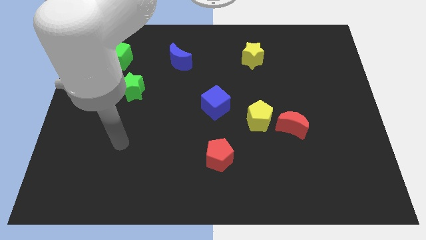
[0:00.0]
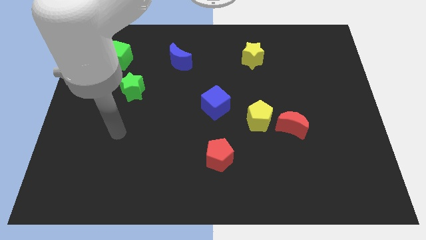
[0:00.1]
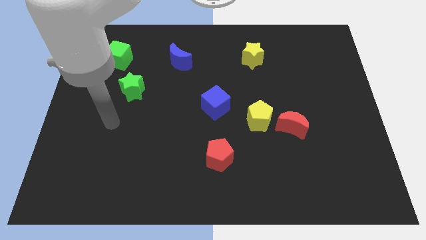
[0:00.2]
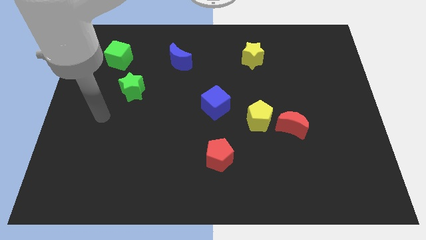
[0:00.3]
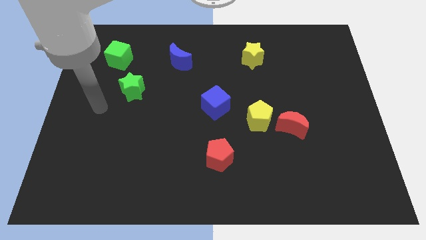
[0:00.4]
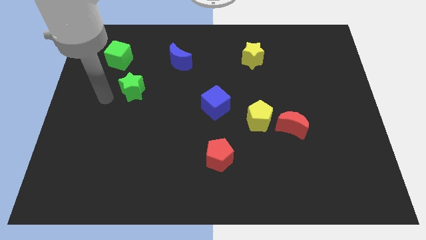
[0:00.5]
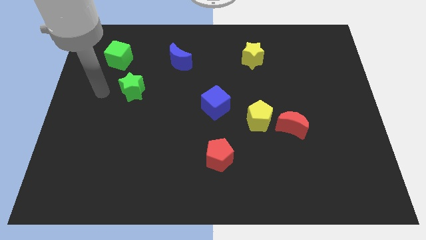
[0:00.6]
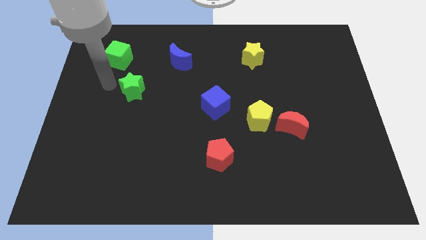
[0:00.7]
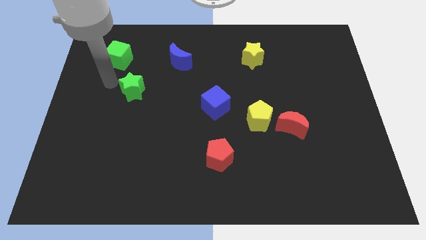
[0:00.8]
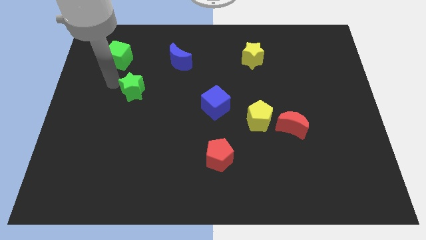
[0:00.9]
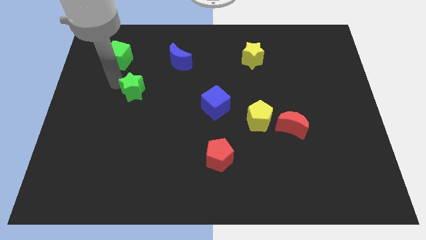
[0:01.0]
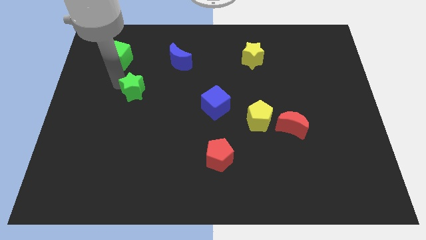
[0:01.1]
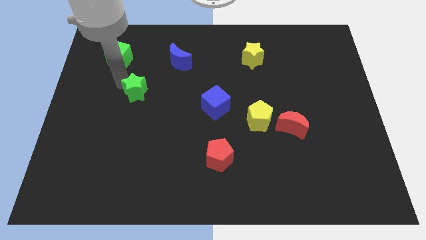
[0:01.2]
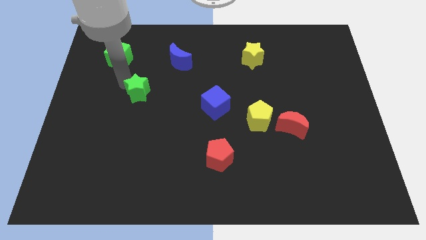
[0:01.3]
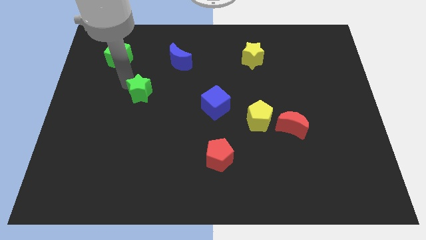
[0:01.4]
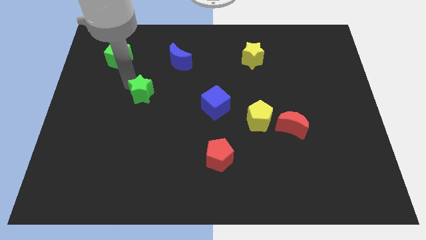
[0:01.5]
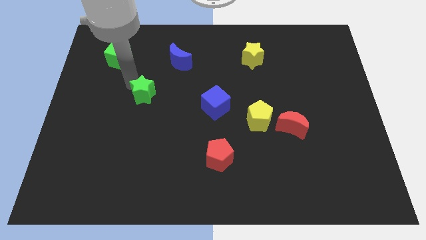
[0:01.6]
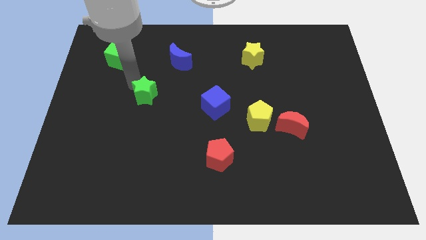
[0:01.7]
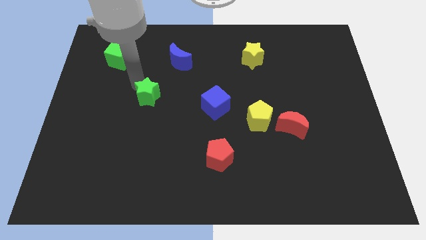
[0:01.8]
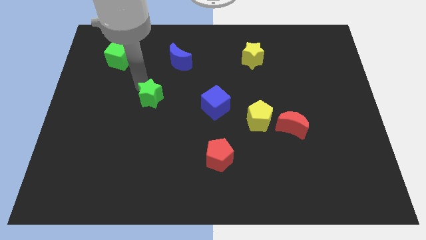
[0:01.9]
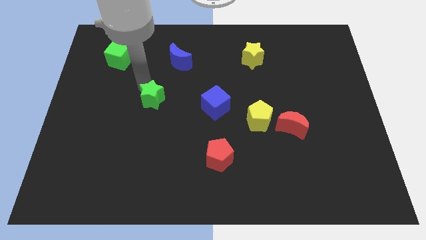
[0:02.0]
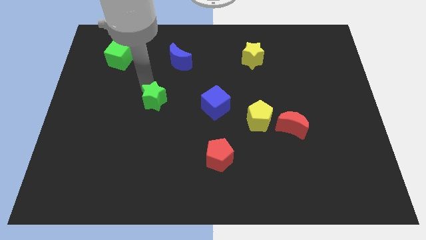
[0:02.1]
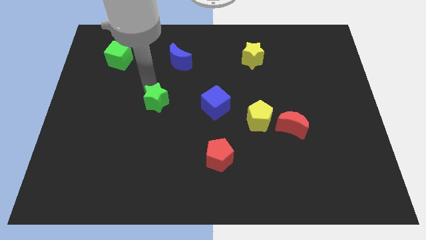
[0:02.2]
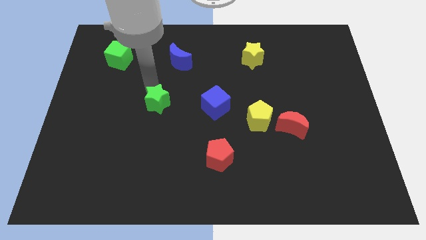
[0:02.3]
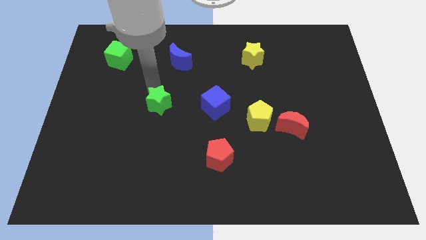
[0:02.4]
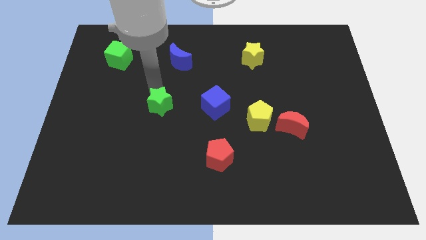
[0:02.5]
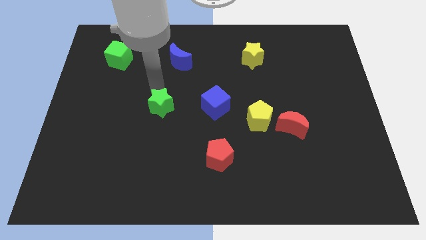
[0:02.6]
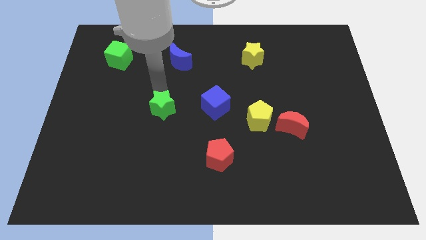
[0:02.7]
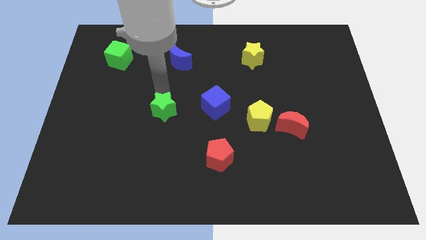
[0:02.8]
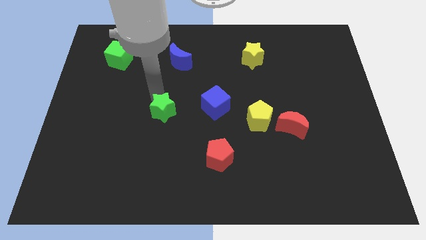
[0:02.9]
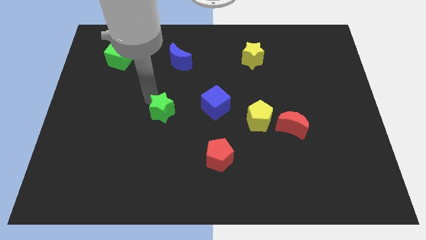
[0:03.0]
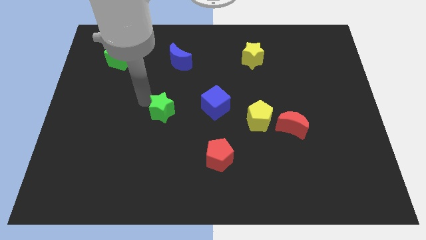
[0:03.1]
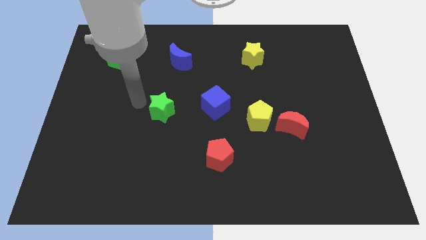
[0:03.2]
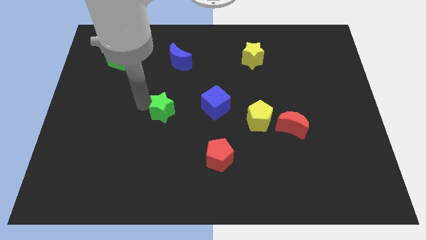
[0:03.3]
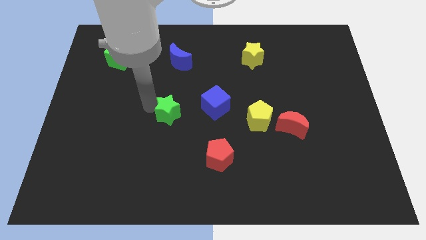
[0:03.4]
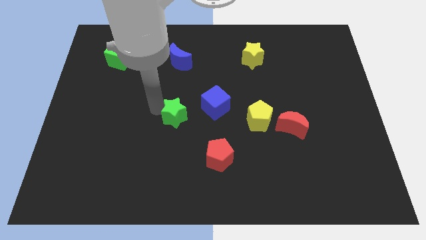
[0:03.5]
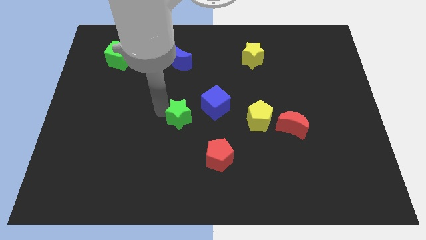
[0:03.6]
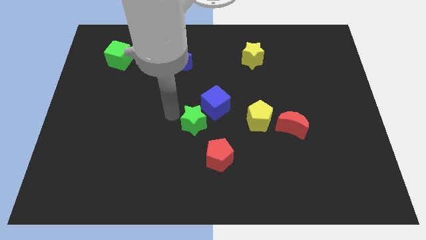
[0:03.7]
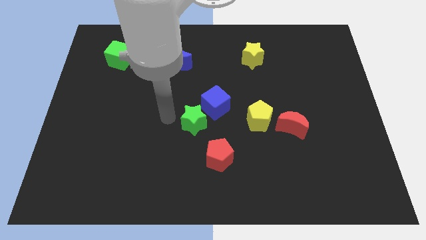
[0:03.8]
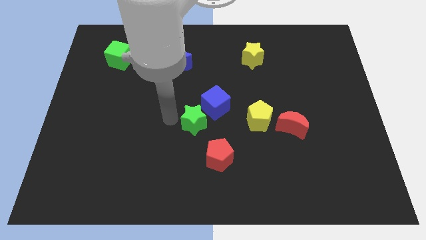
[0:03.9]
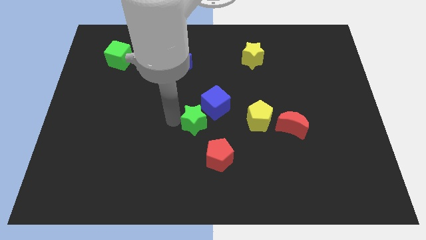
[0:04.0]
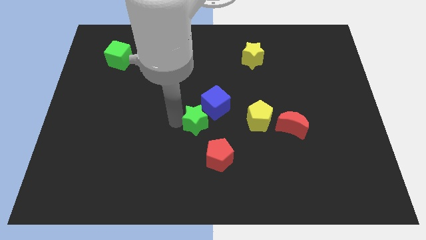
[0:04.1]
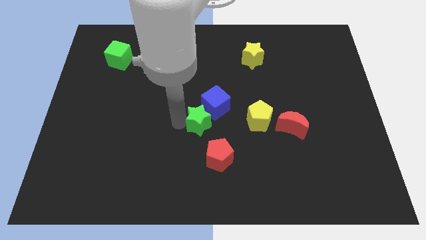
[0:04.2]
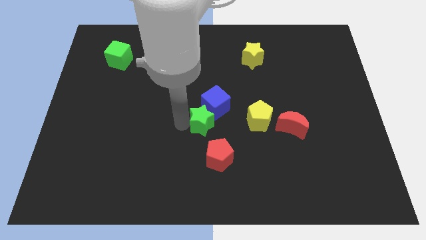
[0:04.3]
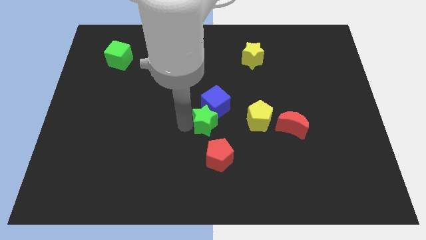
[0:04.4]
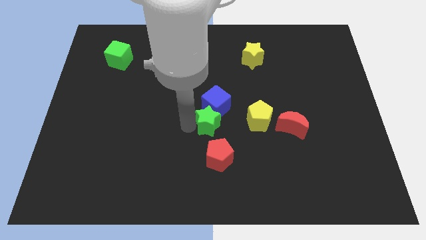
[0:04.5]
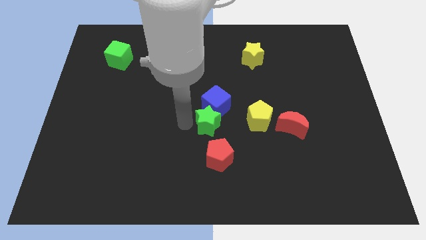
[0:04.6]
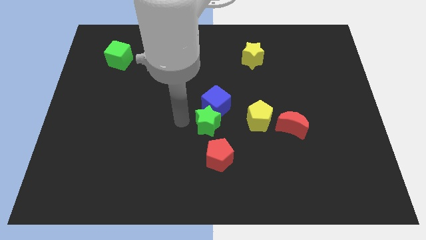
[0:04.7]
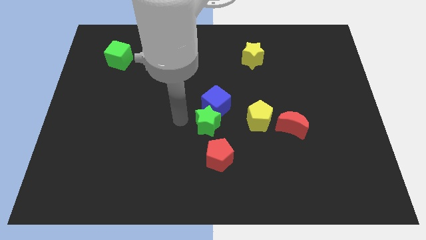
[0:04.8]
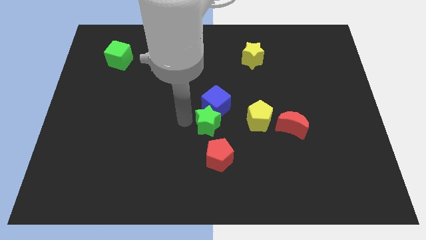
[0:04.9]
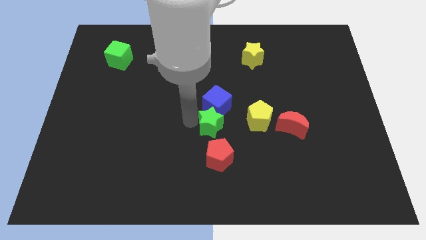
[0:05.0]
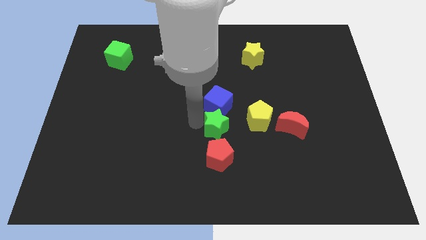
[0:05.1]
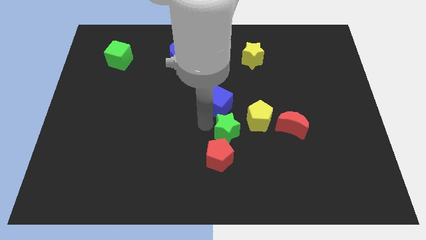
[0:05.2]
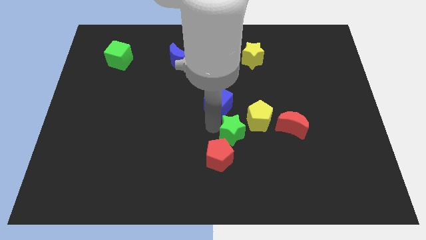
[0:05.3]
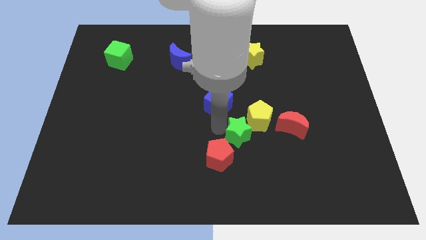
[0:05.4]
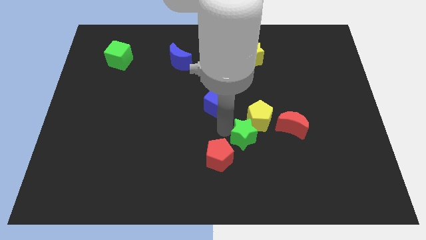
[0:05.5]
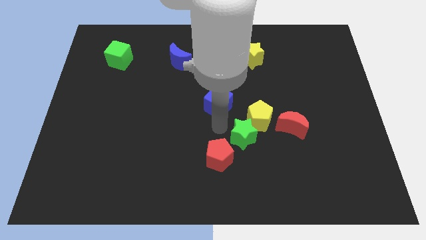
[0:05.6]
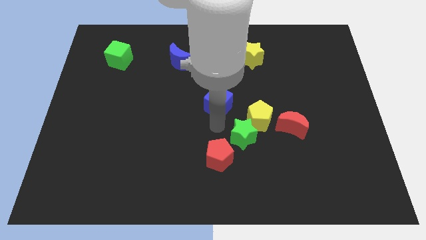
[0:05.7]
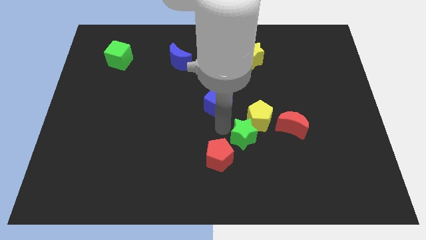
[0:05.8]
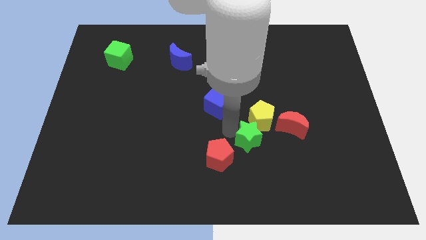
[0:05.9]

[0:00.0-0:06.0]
slide the green star to the bottom left side of the red moon
